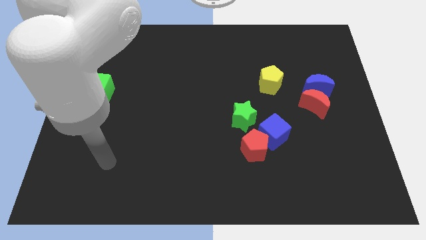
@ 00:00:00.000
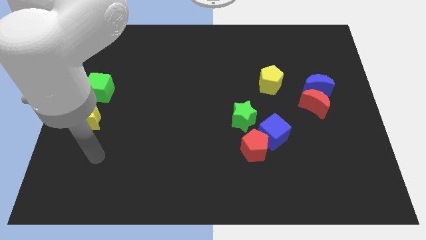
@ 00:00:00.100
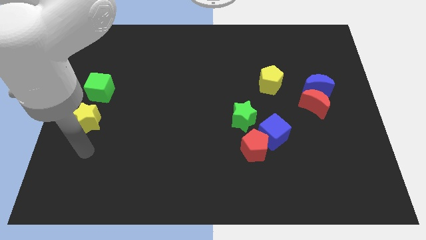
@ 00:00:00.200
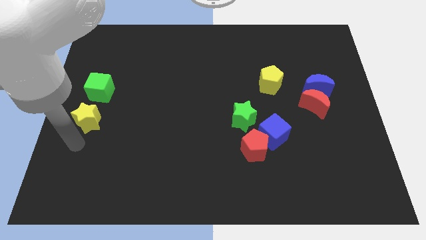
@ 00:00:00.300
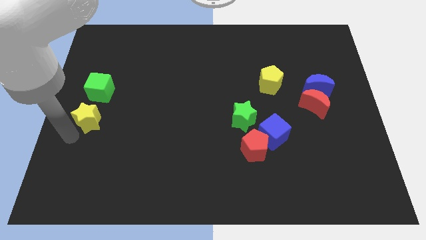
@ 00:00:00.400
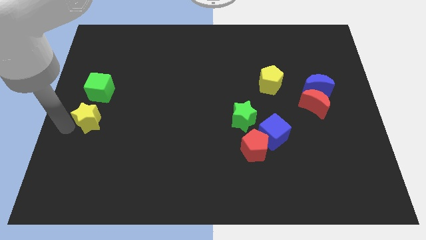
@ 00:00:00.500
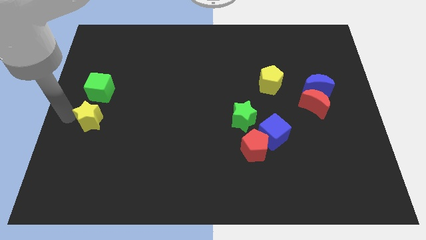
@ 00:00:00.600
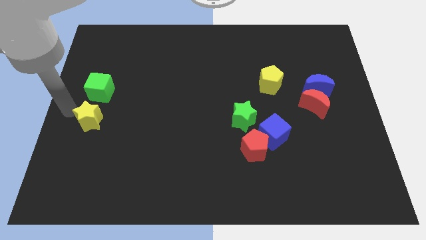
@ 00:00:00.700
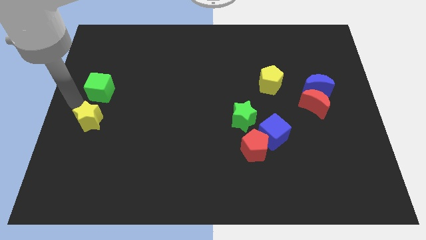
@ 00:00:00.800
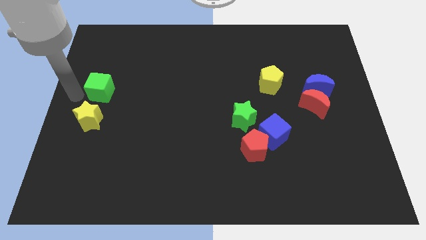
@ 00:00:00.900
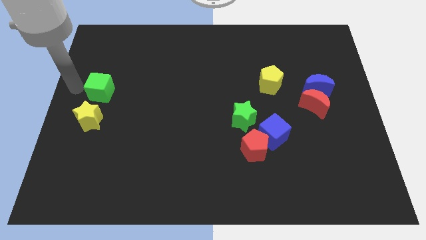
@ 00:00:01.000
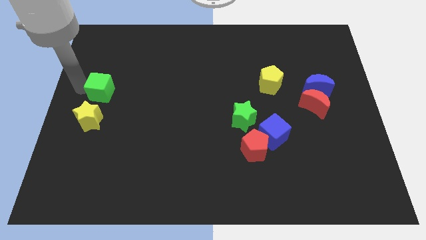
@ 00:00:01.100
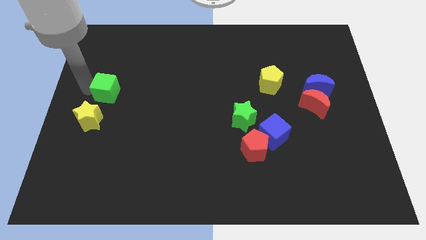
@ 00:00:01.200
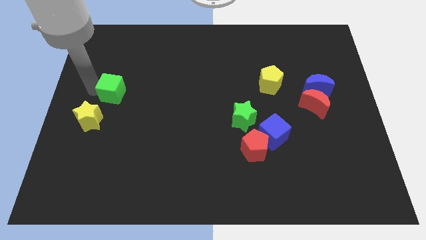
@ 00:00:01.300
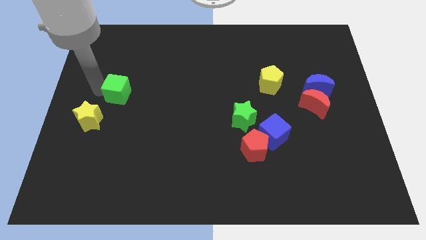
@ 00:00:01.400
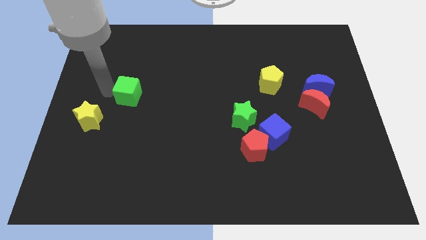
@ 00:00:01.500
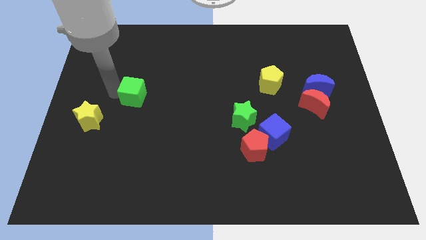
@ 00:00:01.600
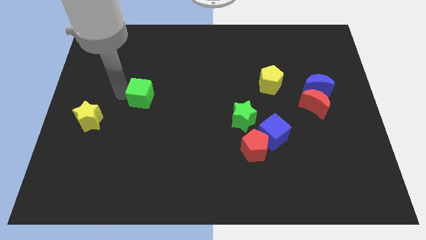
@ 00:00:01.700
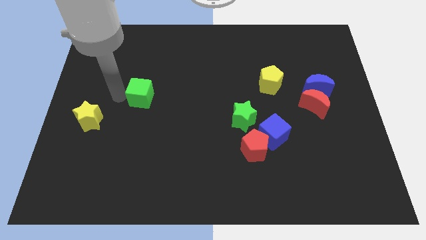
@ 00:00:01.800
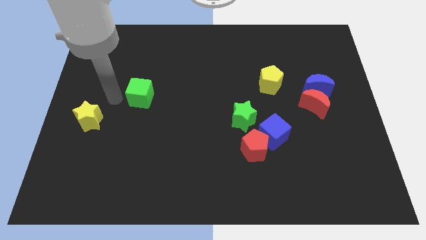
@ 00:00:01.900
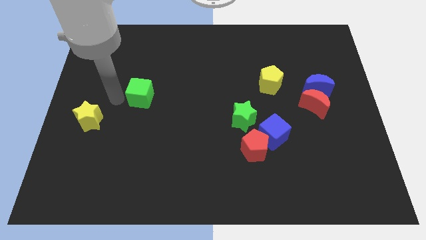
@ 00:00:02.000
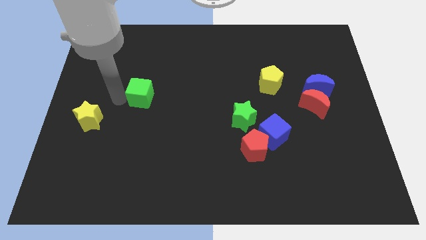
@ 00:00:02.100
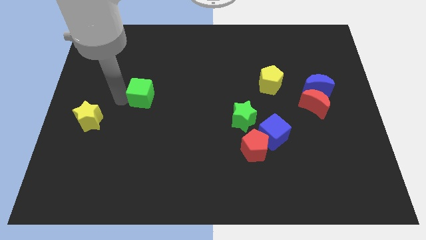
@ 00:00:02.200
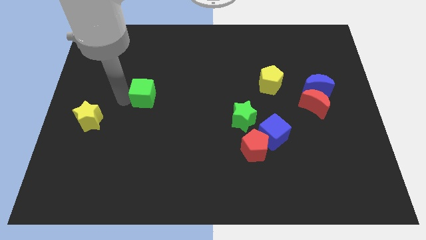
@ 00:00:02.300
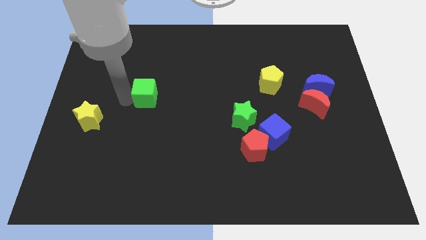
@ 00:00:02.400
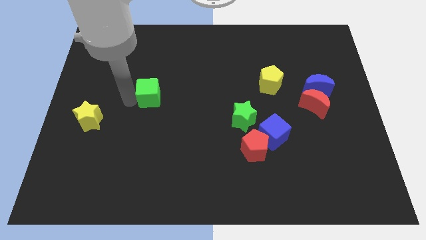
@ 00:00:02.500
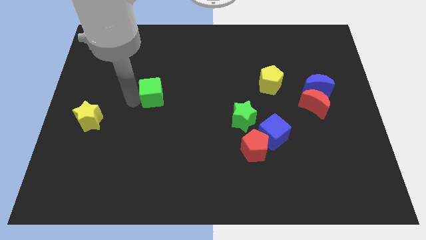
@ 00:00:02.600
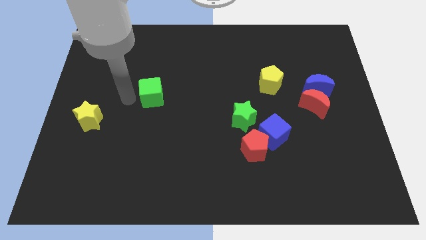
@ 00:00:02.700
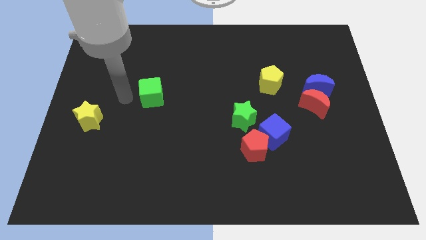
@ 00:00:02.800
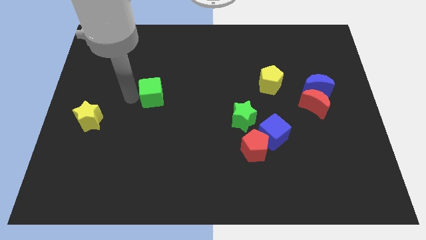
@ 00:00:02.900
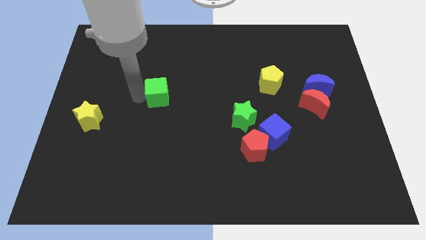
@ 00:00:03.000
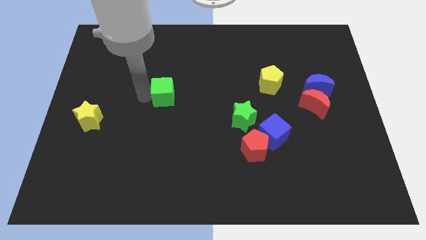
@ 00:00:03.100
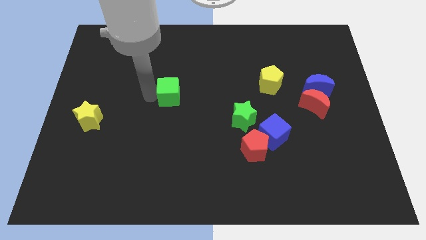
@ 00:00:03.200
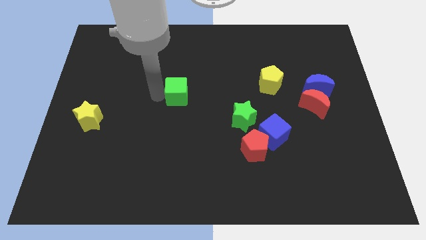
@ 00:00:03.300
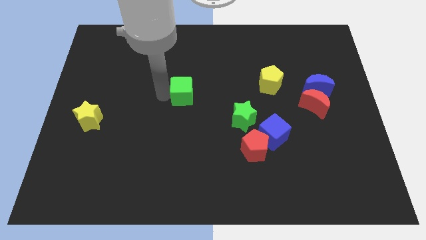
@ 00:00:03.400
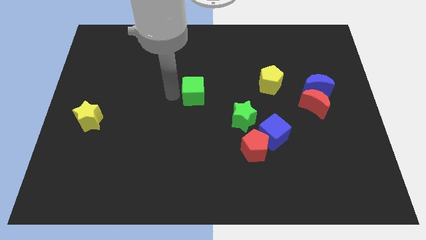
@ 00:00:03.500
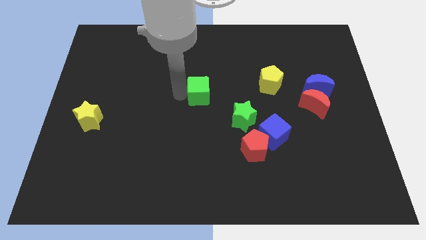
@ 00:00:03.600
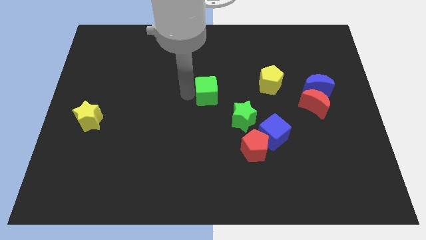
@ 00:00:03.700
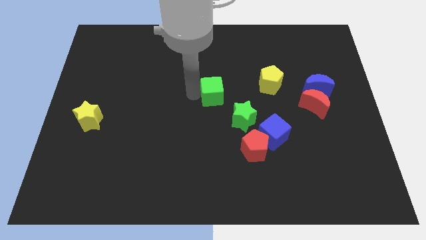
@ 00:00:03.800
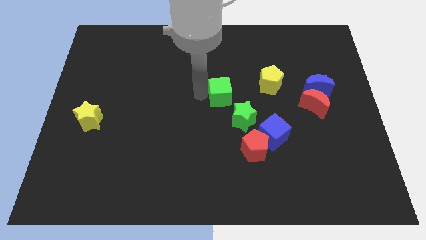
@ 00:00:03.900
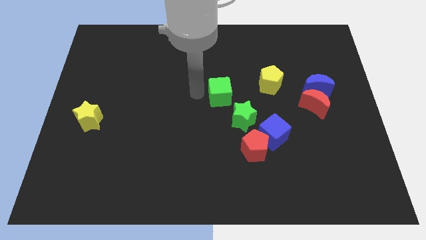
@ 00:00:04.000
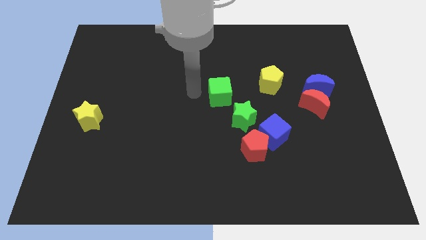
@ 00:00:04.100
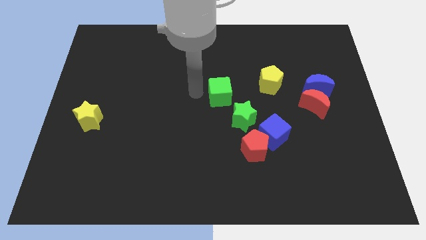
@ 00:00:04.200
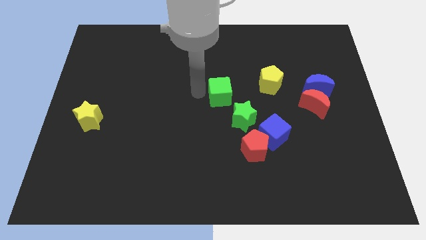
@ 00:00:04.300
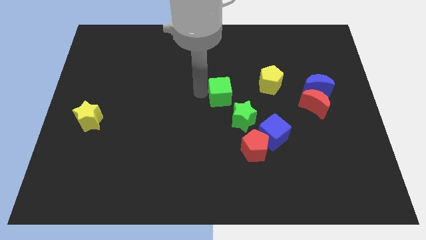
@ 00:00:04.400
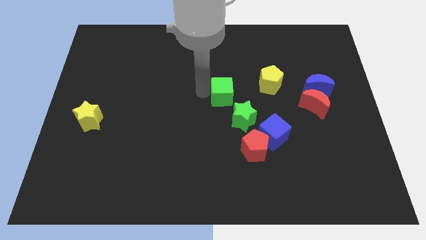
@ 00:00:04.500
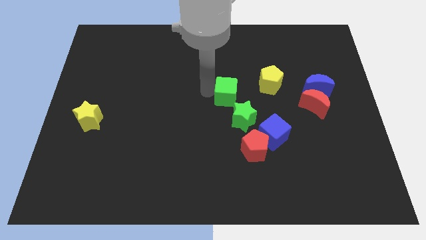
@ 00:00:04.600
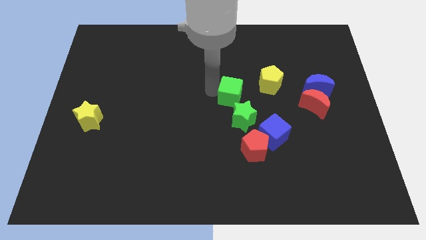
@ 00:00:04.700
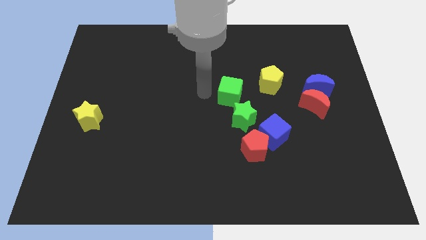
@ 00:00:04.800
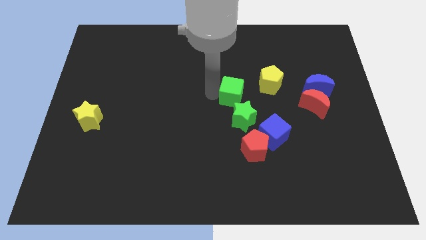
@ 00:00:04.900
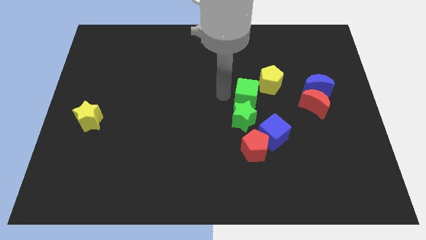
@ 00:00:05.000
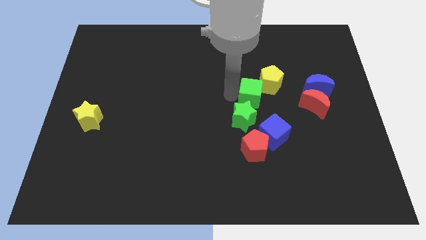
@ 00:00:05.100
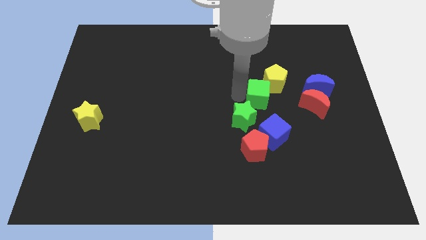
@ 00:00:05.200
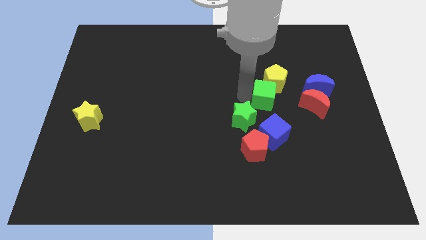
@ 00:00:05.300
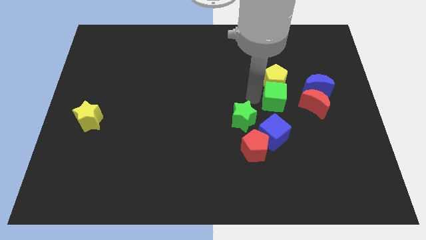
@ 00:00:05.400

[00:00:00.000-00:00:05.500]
slide the green cube to the bottom right of the yellow pentagon

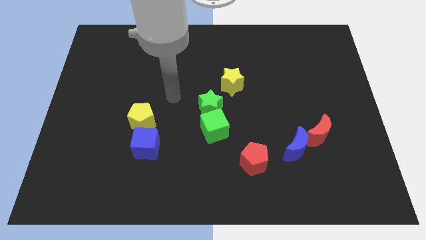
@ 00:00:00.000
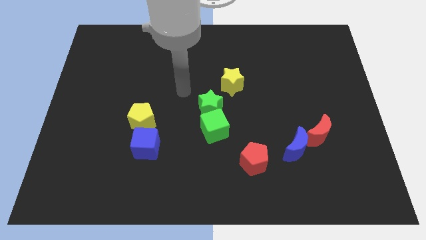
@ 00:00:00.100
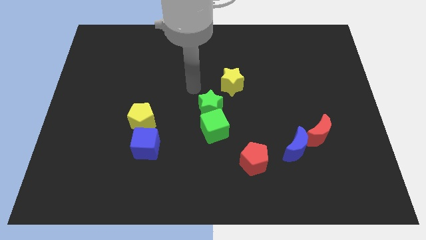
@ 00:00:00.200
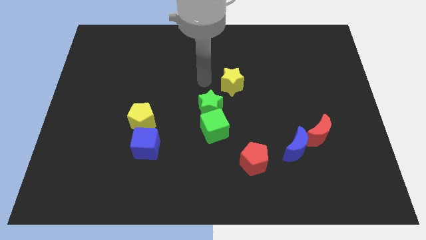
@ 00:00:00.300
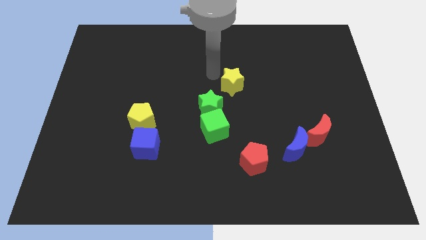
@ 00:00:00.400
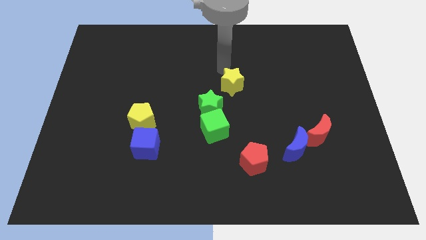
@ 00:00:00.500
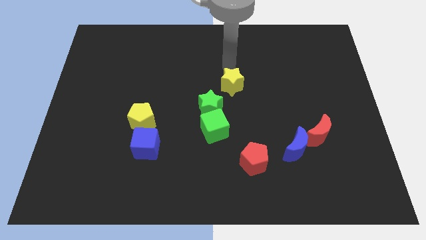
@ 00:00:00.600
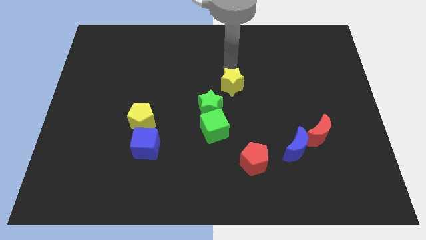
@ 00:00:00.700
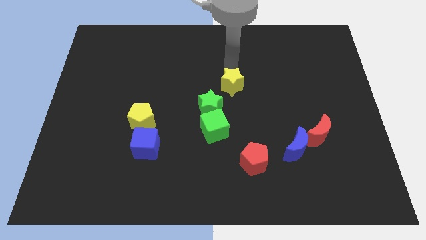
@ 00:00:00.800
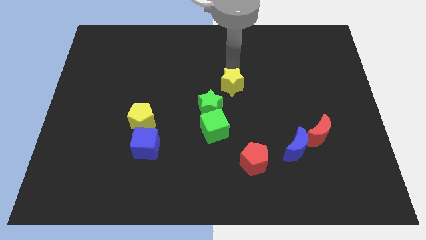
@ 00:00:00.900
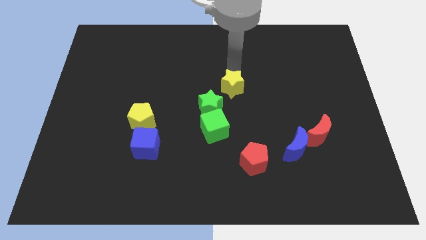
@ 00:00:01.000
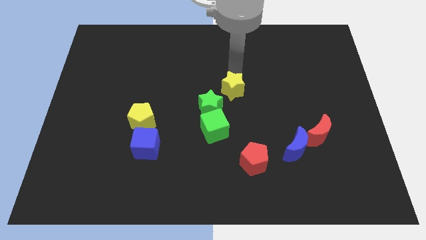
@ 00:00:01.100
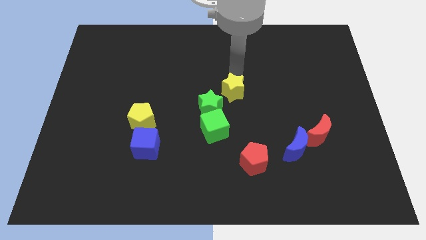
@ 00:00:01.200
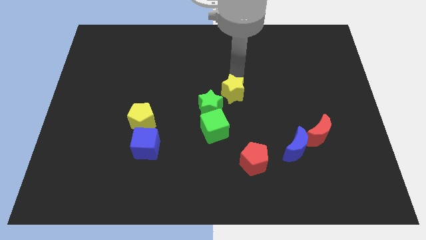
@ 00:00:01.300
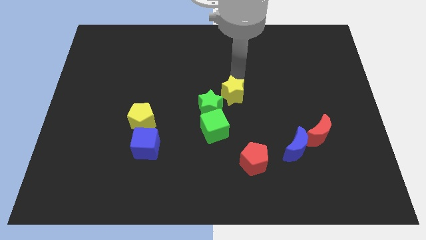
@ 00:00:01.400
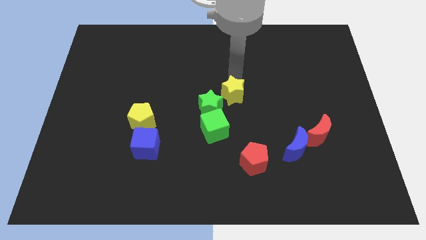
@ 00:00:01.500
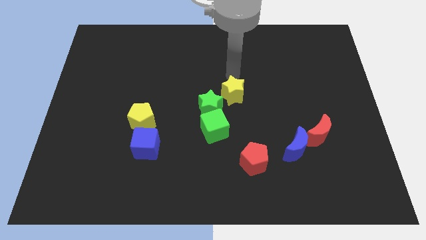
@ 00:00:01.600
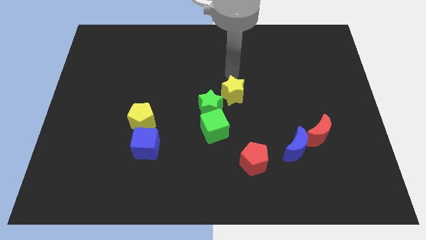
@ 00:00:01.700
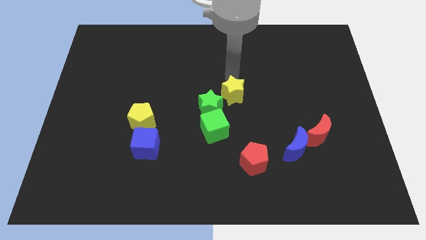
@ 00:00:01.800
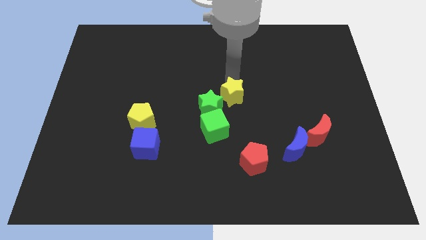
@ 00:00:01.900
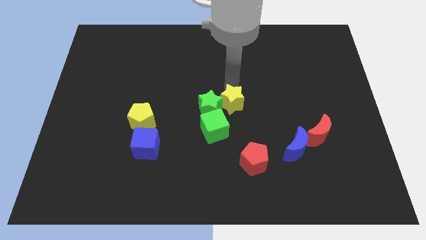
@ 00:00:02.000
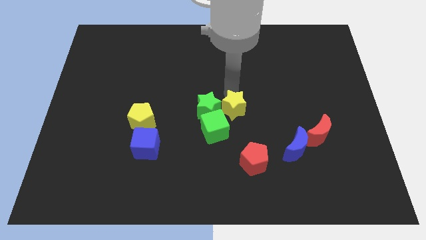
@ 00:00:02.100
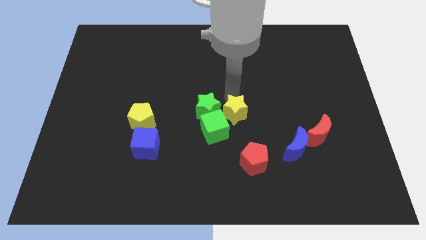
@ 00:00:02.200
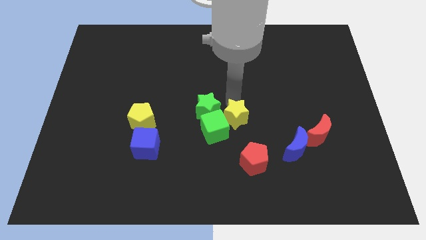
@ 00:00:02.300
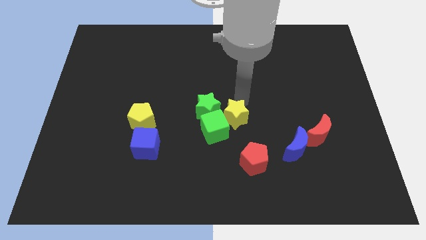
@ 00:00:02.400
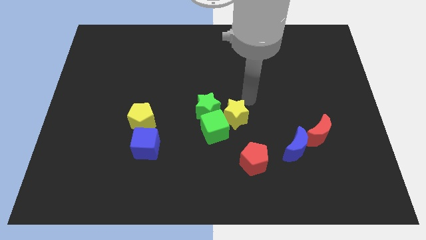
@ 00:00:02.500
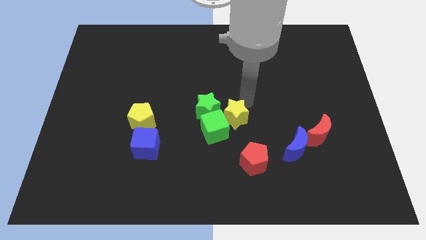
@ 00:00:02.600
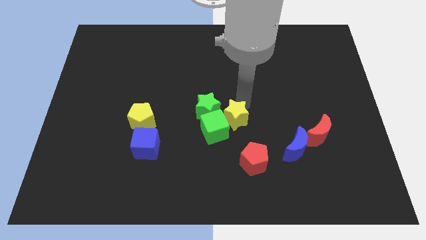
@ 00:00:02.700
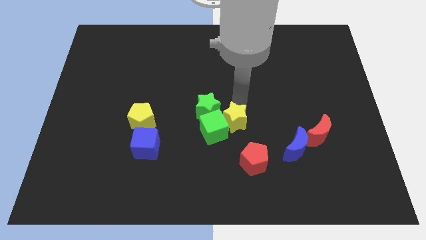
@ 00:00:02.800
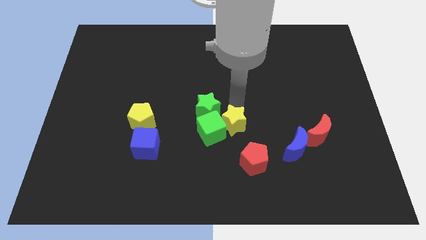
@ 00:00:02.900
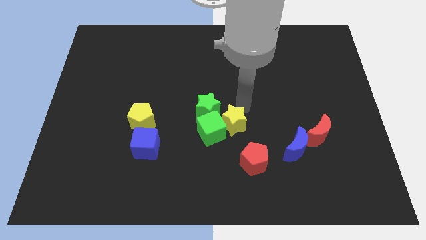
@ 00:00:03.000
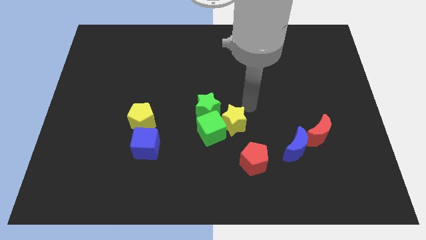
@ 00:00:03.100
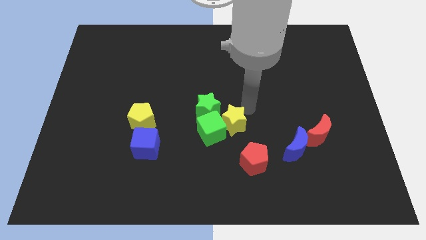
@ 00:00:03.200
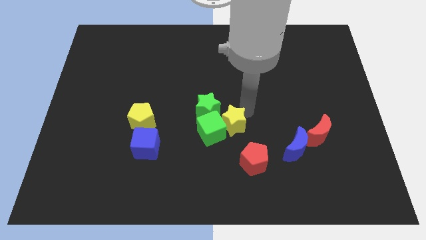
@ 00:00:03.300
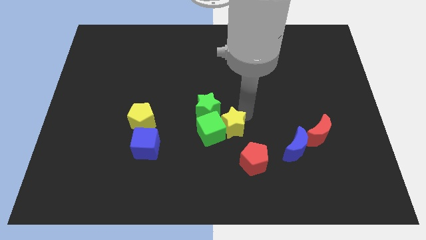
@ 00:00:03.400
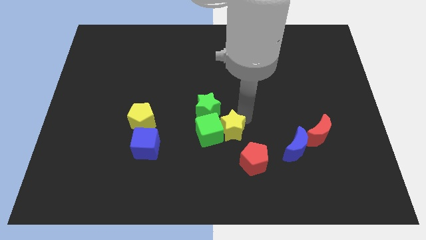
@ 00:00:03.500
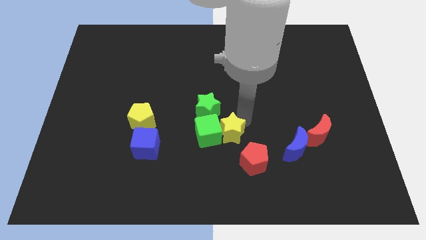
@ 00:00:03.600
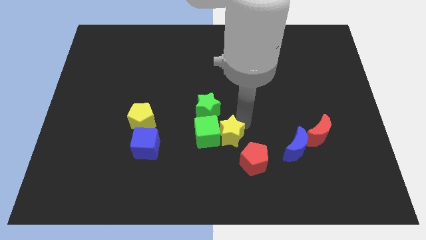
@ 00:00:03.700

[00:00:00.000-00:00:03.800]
put the yellow star to the bottom side of the green star
